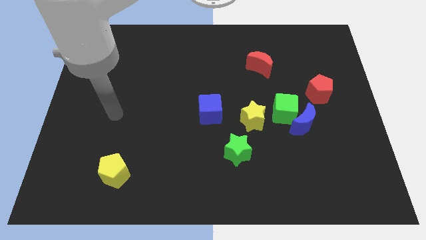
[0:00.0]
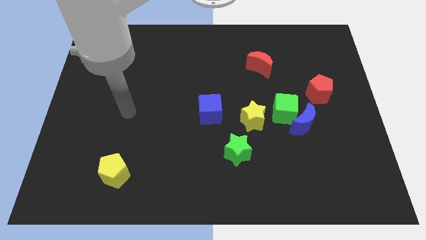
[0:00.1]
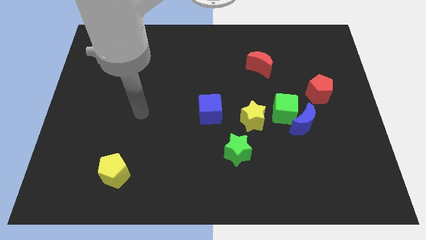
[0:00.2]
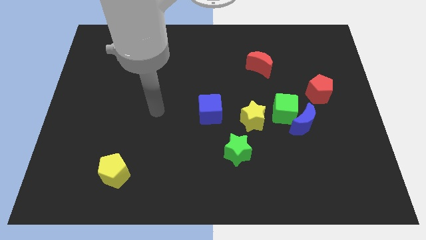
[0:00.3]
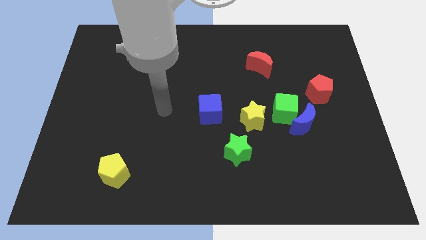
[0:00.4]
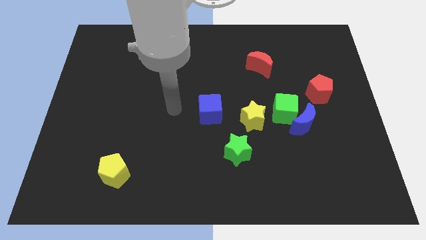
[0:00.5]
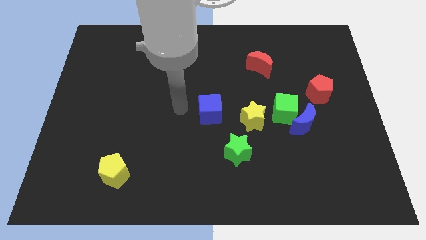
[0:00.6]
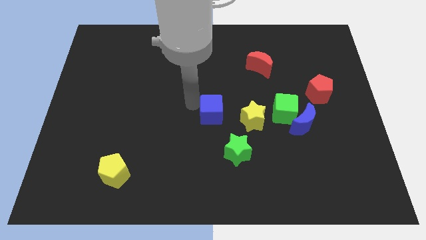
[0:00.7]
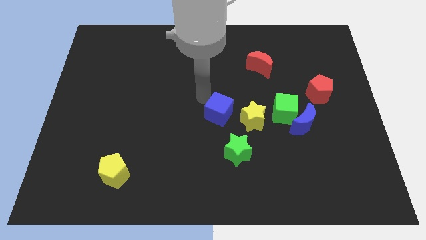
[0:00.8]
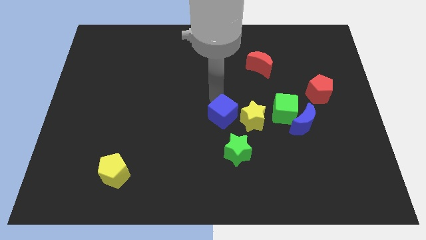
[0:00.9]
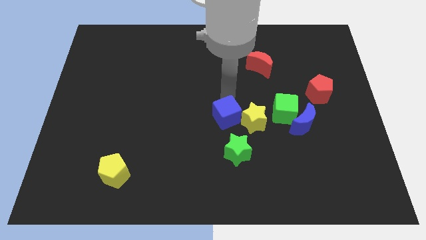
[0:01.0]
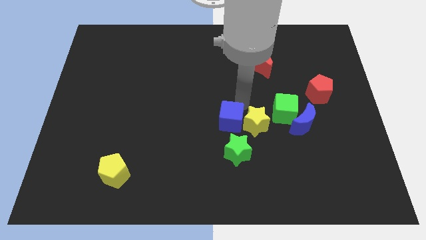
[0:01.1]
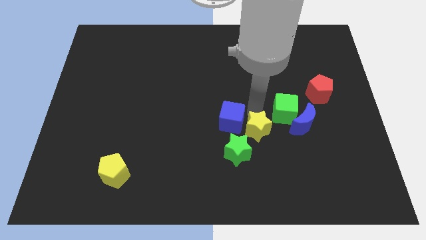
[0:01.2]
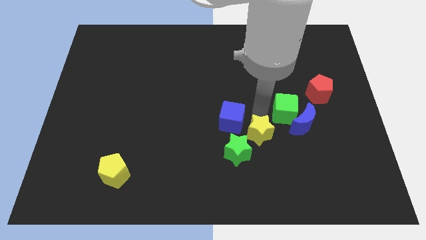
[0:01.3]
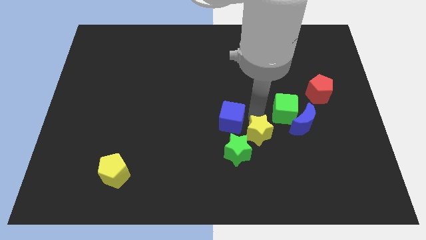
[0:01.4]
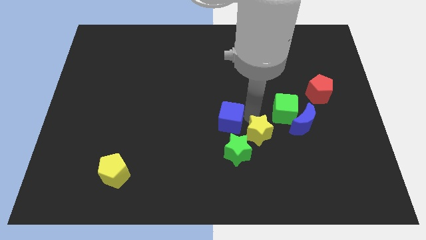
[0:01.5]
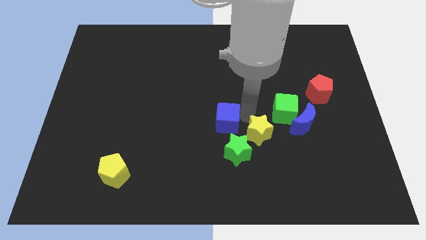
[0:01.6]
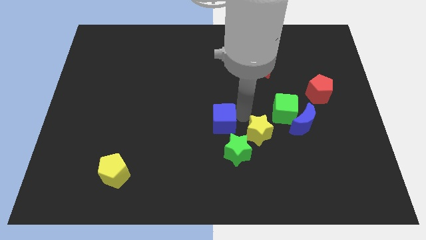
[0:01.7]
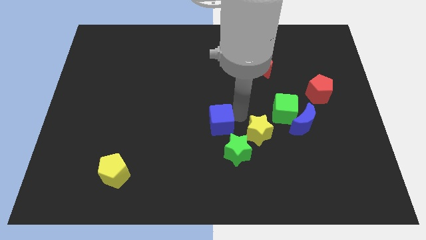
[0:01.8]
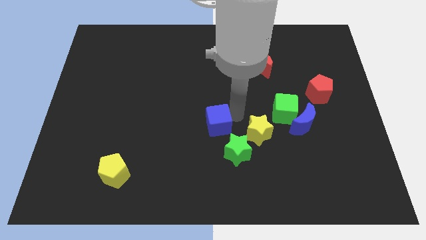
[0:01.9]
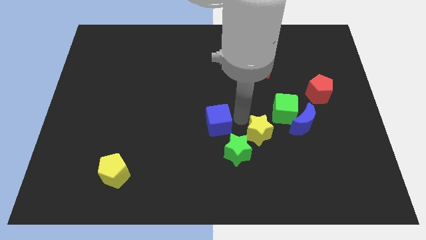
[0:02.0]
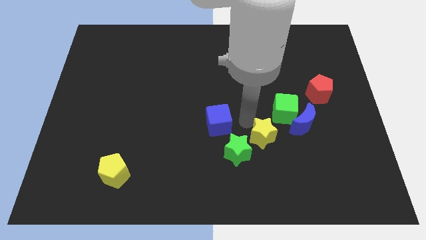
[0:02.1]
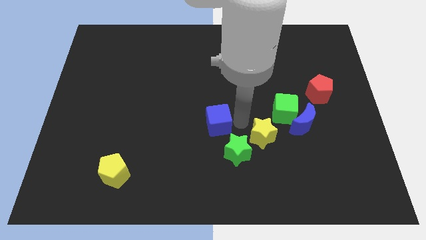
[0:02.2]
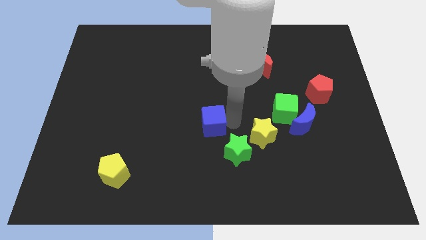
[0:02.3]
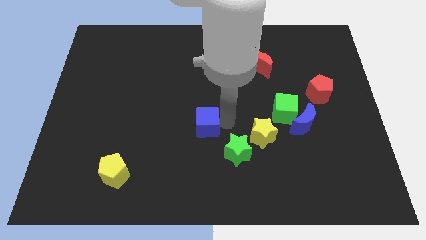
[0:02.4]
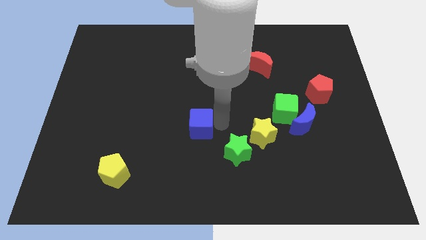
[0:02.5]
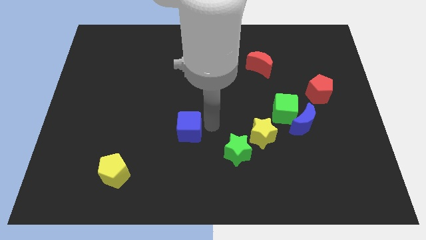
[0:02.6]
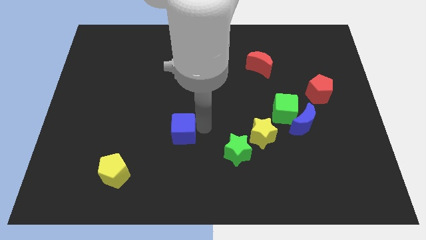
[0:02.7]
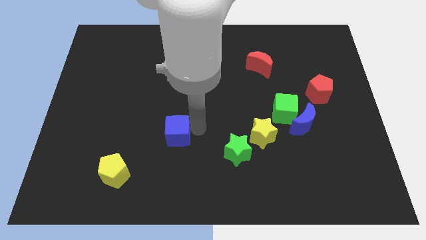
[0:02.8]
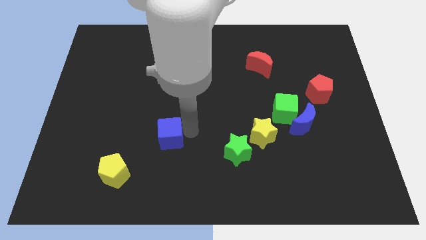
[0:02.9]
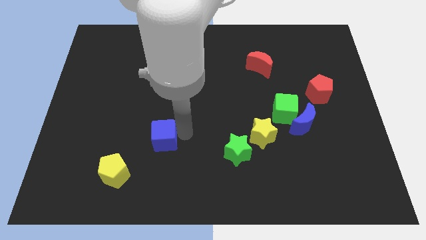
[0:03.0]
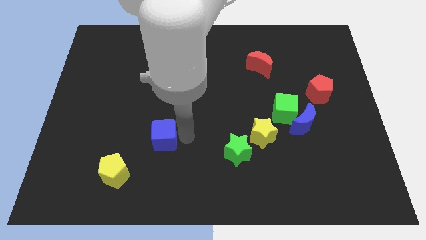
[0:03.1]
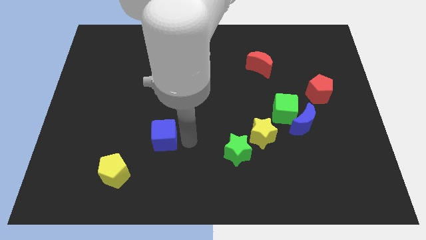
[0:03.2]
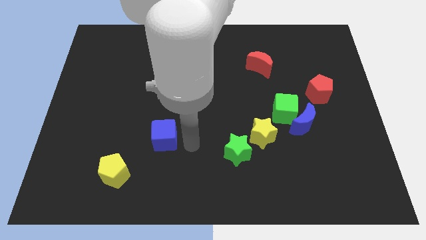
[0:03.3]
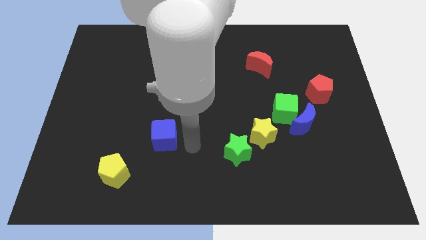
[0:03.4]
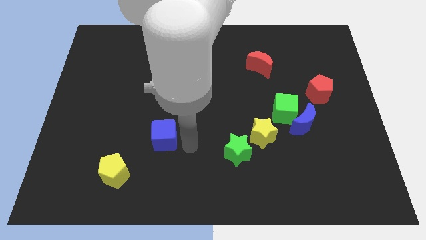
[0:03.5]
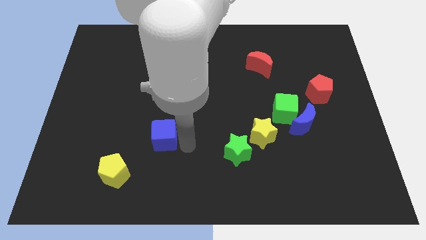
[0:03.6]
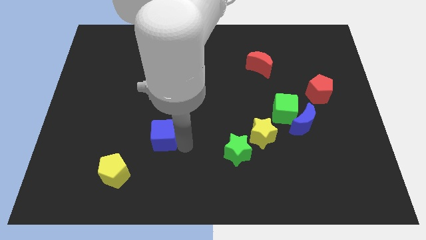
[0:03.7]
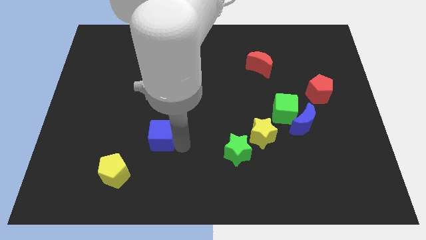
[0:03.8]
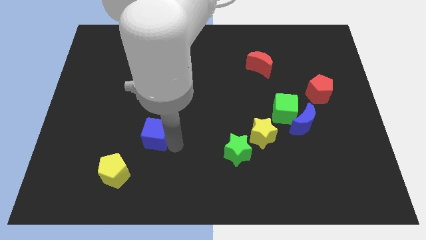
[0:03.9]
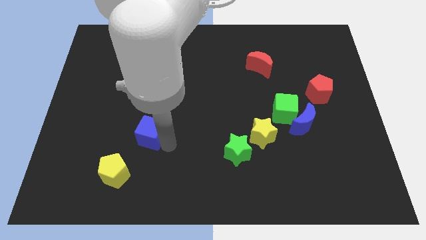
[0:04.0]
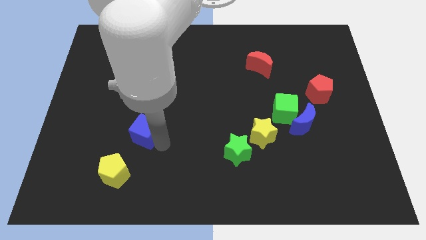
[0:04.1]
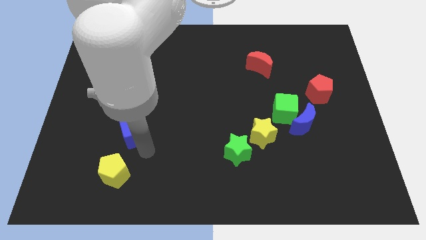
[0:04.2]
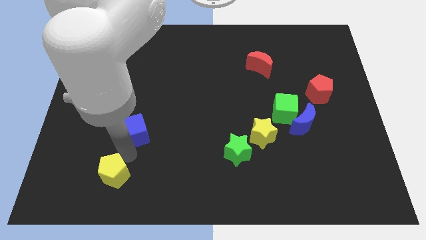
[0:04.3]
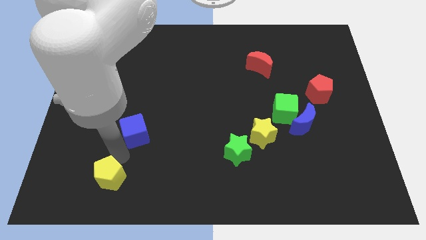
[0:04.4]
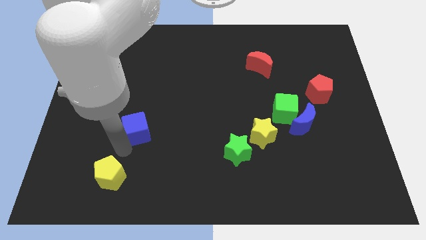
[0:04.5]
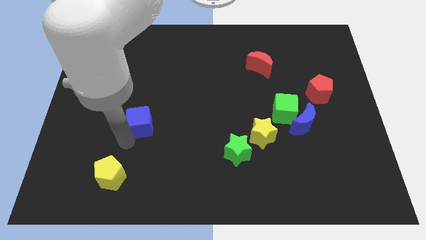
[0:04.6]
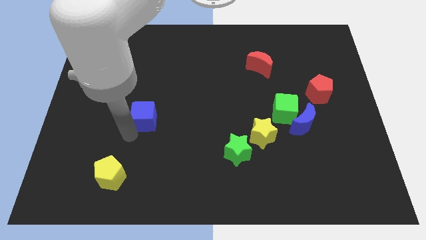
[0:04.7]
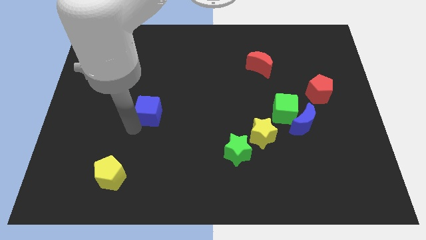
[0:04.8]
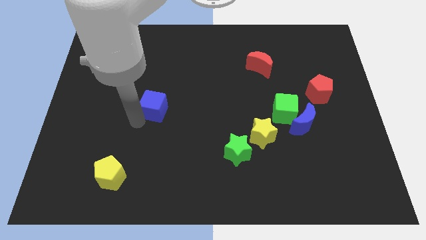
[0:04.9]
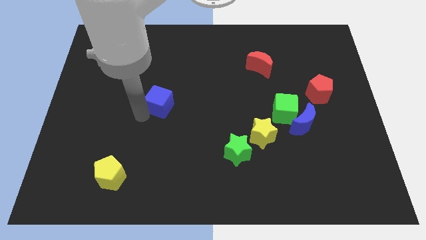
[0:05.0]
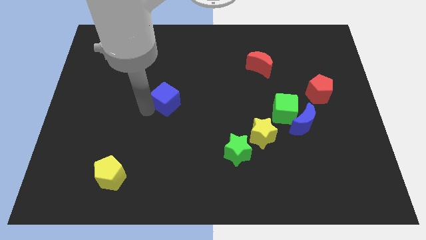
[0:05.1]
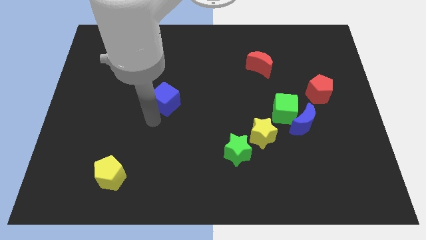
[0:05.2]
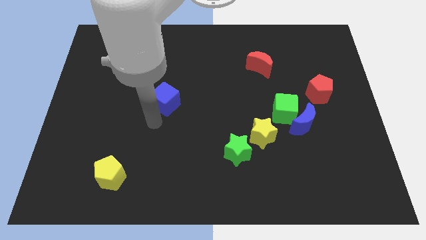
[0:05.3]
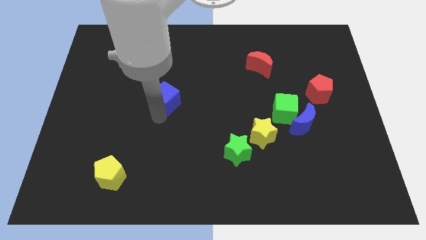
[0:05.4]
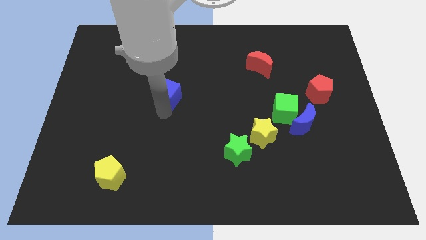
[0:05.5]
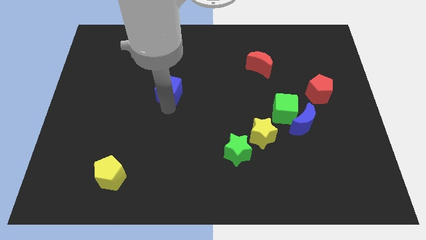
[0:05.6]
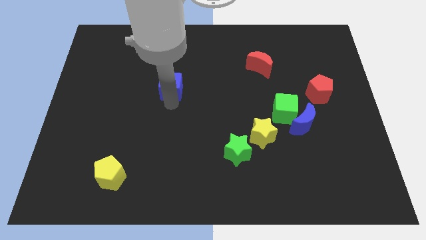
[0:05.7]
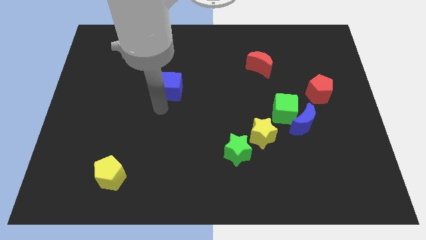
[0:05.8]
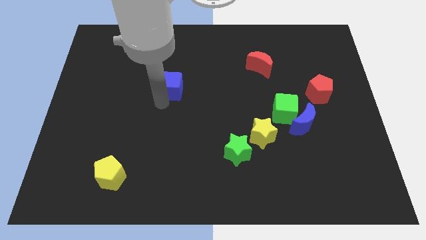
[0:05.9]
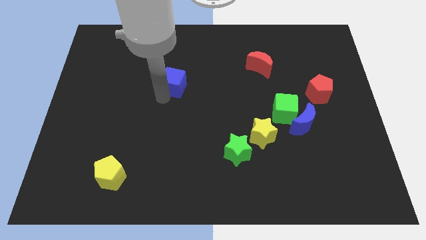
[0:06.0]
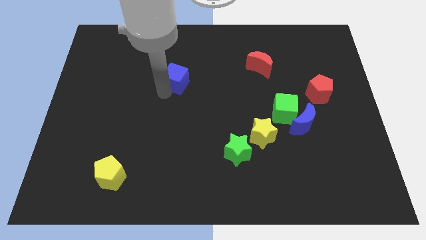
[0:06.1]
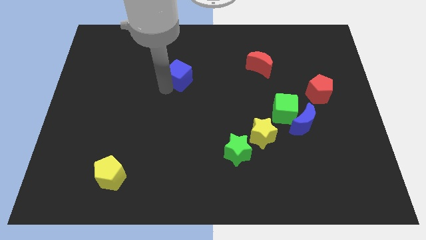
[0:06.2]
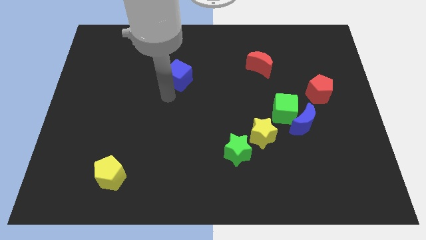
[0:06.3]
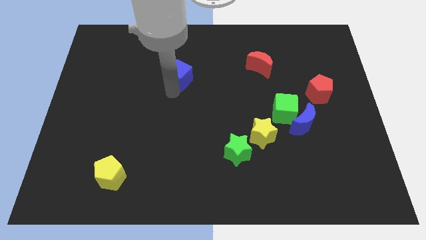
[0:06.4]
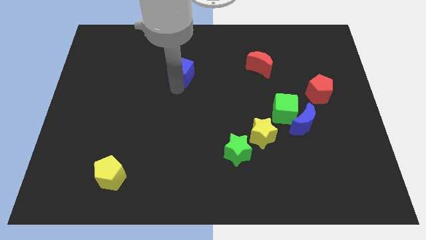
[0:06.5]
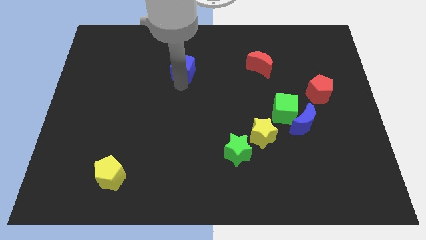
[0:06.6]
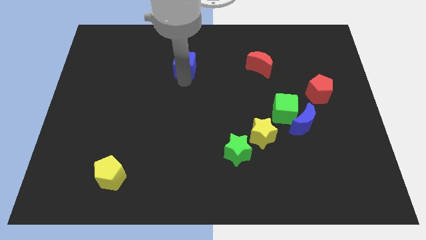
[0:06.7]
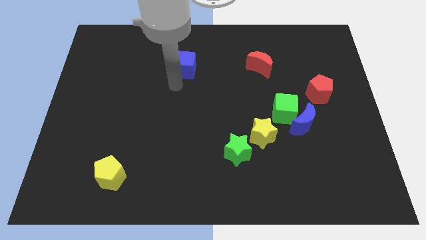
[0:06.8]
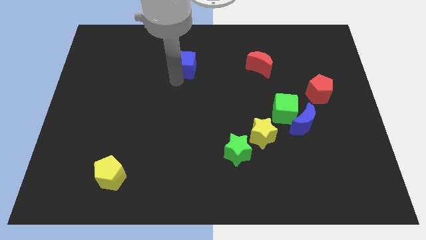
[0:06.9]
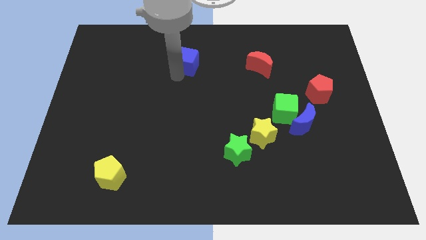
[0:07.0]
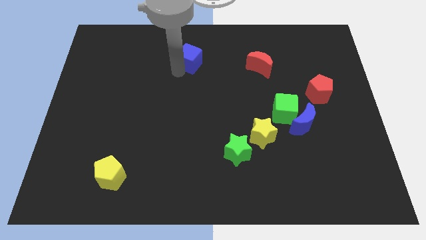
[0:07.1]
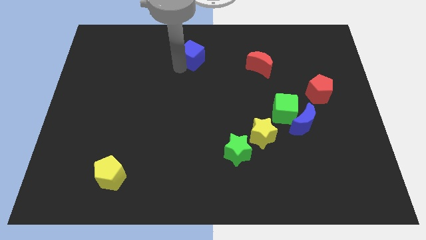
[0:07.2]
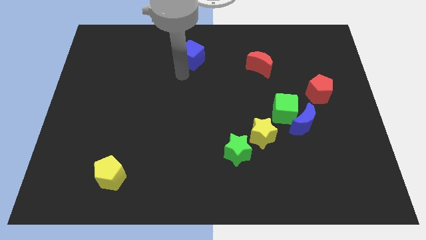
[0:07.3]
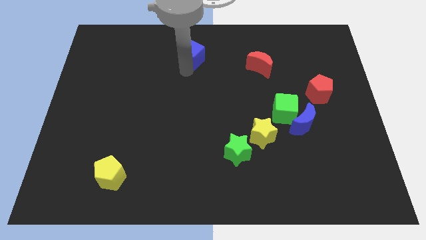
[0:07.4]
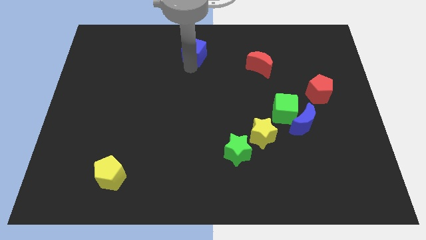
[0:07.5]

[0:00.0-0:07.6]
slide the blue cube to the top

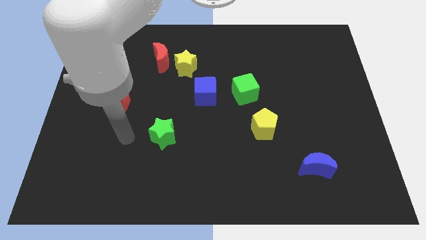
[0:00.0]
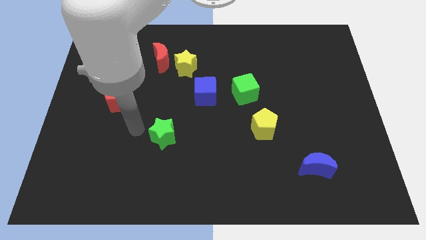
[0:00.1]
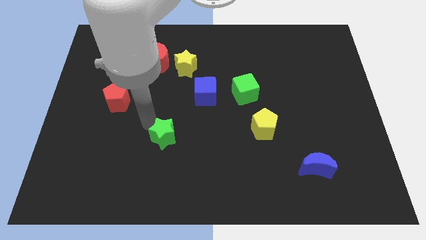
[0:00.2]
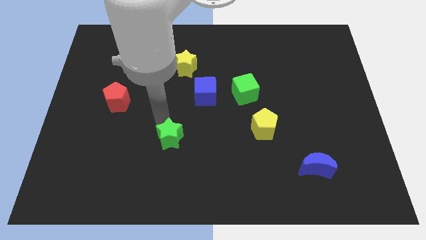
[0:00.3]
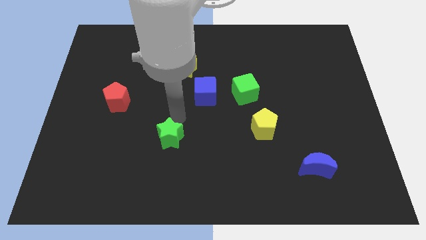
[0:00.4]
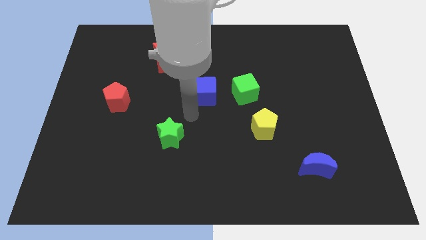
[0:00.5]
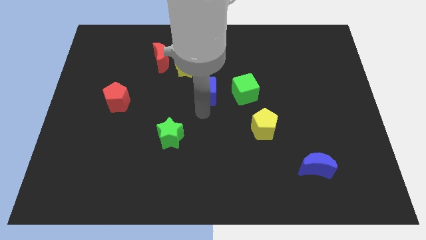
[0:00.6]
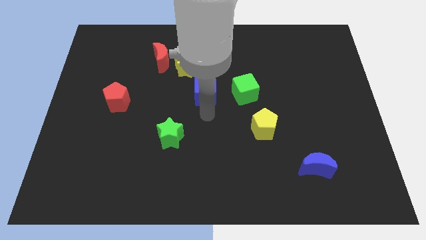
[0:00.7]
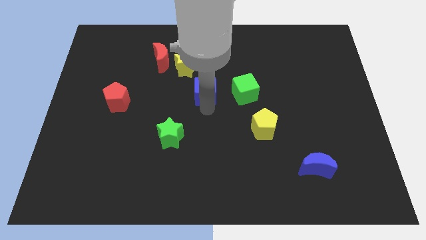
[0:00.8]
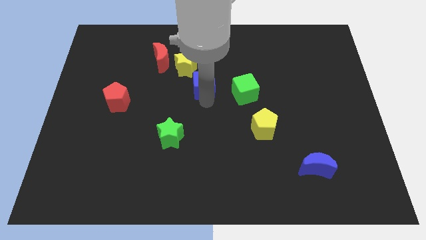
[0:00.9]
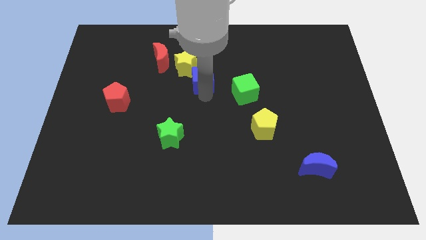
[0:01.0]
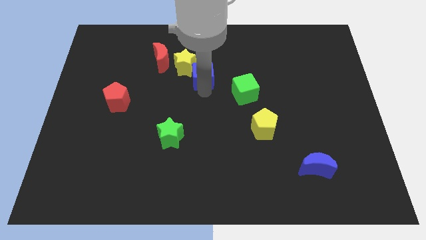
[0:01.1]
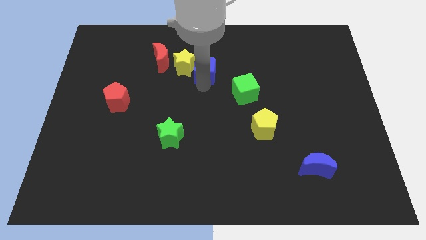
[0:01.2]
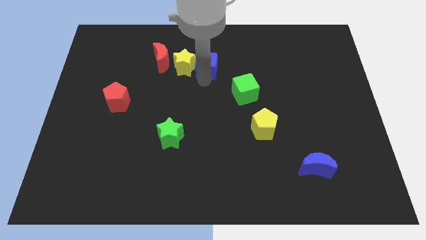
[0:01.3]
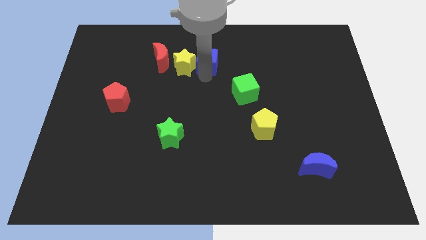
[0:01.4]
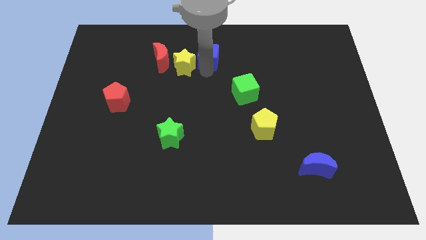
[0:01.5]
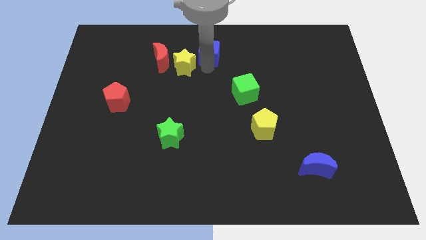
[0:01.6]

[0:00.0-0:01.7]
move the blue cube to the towards your base
